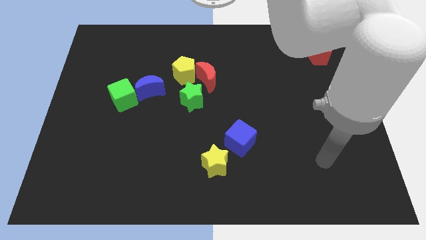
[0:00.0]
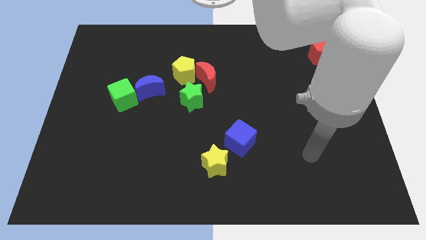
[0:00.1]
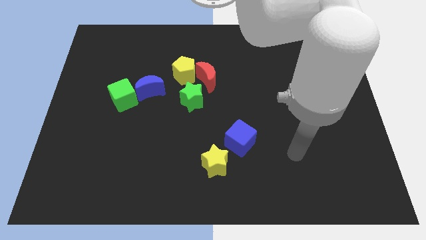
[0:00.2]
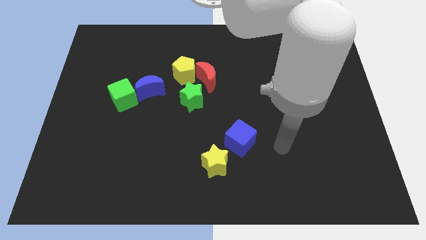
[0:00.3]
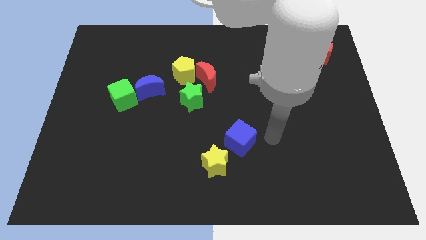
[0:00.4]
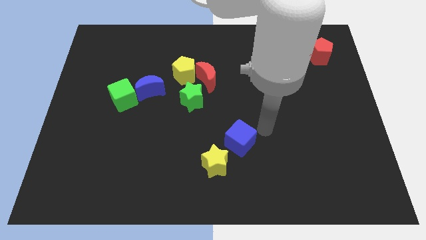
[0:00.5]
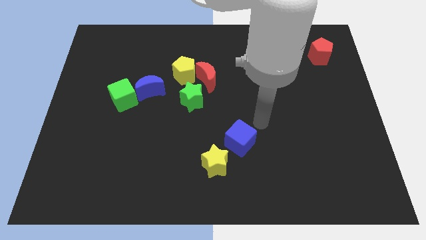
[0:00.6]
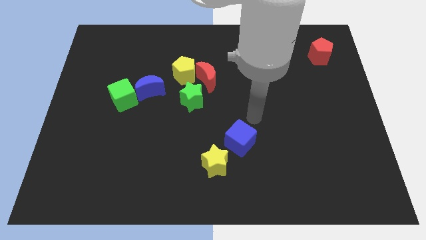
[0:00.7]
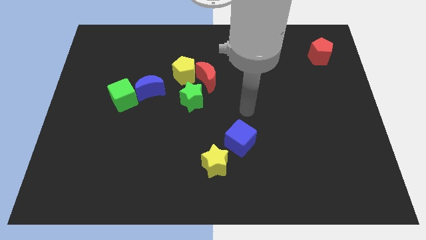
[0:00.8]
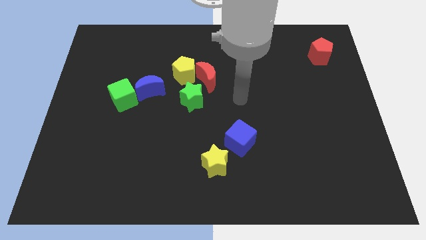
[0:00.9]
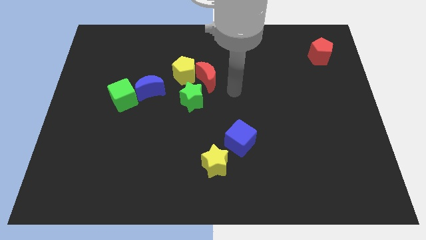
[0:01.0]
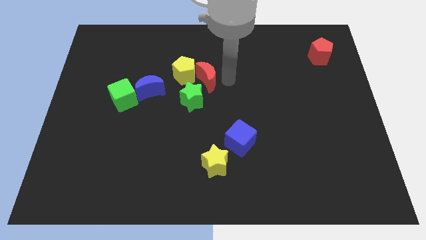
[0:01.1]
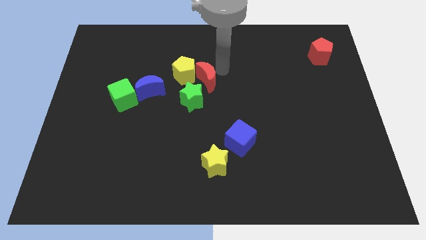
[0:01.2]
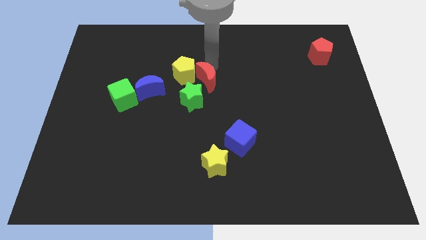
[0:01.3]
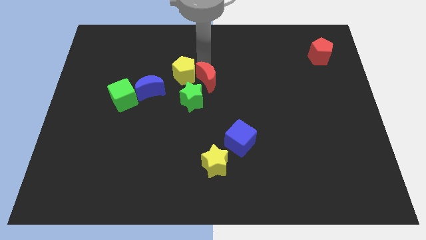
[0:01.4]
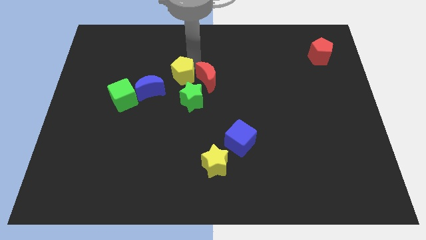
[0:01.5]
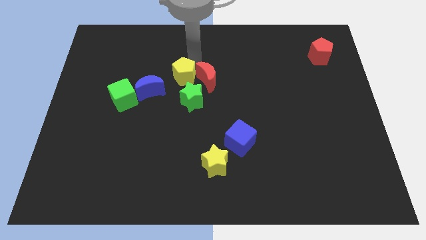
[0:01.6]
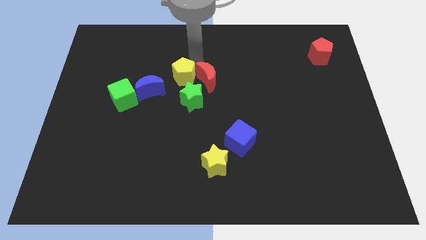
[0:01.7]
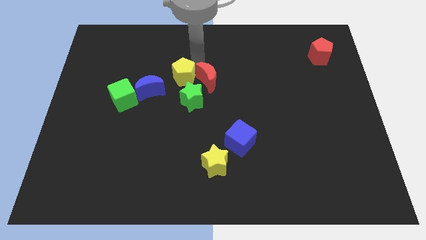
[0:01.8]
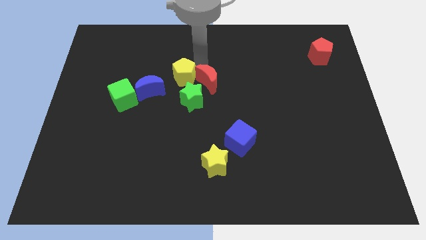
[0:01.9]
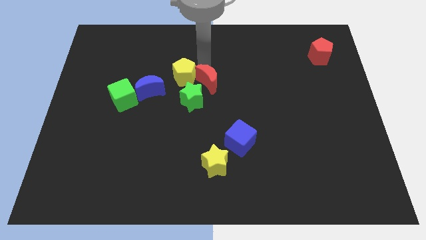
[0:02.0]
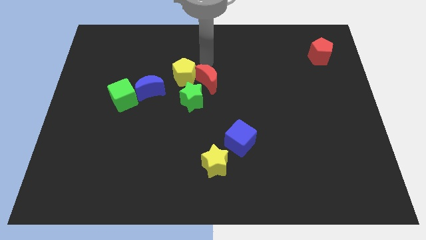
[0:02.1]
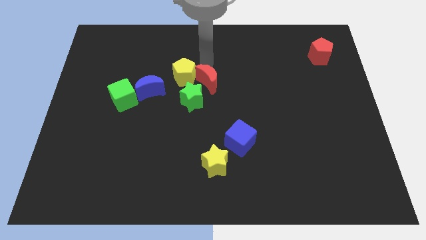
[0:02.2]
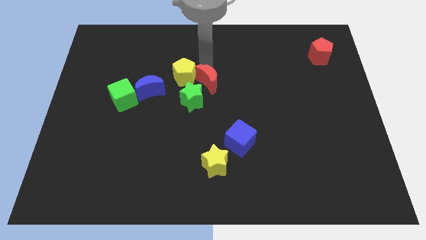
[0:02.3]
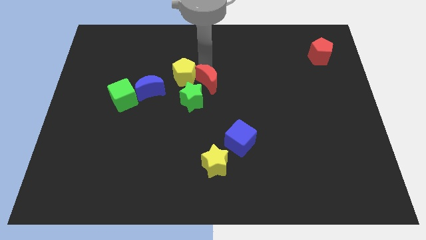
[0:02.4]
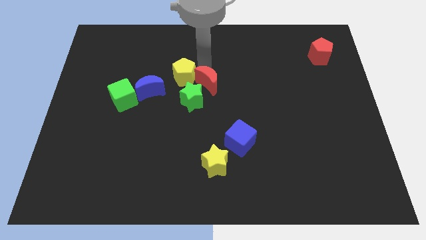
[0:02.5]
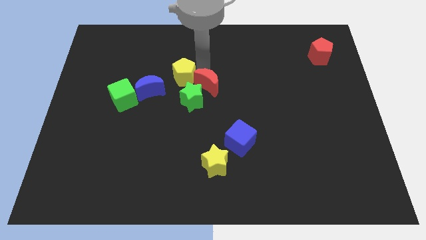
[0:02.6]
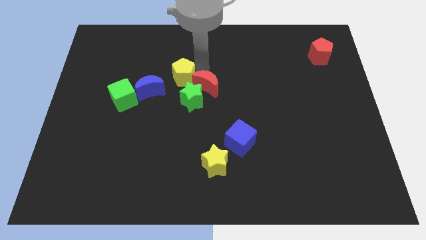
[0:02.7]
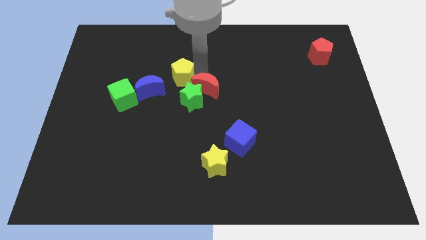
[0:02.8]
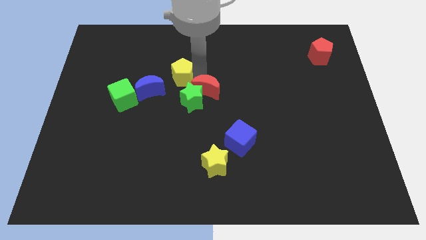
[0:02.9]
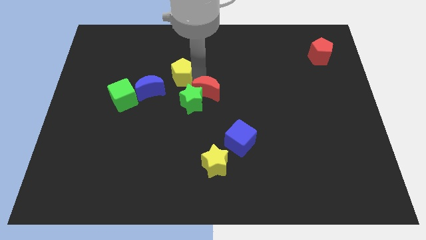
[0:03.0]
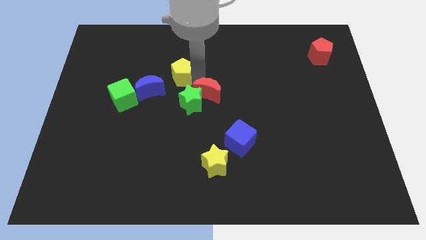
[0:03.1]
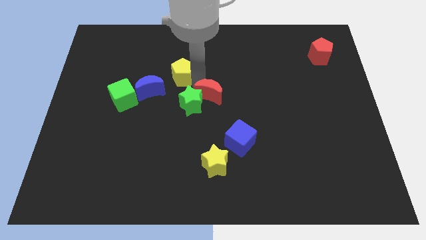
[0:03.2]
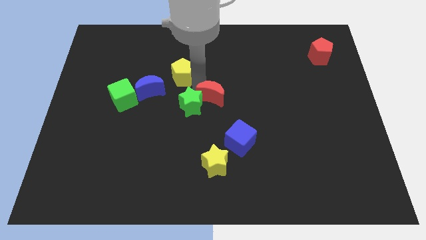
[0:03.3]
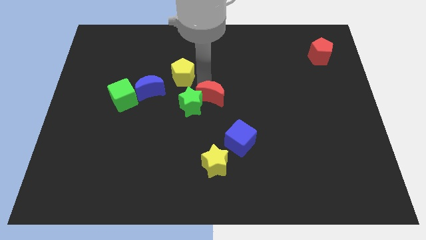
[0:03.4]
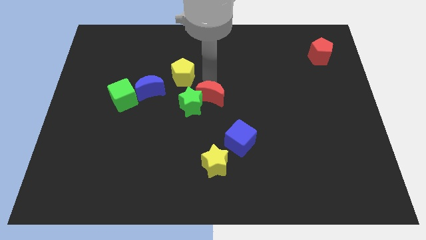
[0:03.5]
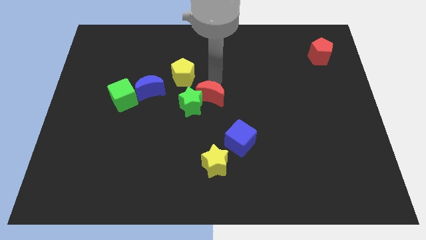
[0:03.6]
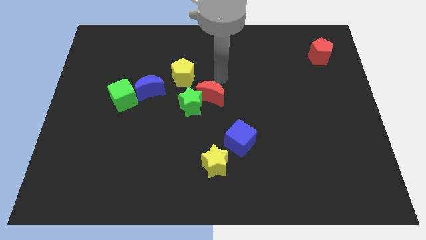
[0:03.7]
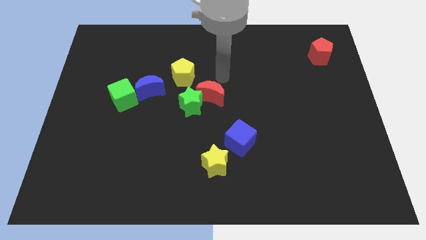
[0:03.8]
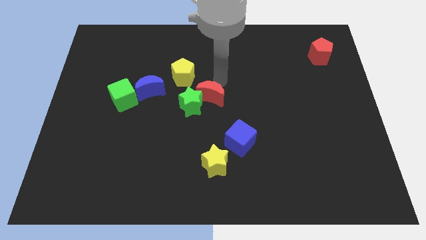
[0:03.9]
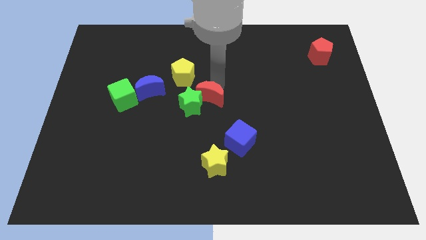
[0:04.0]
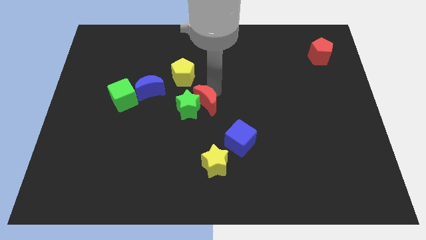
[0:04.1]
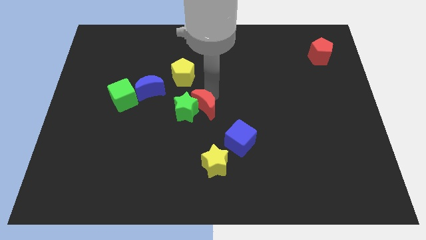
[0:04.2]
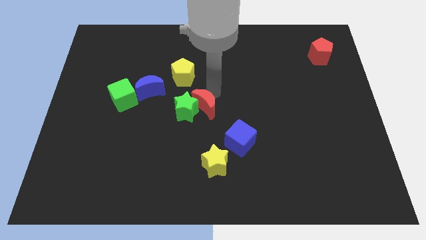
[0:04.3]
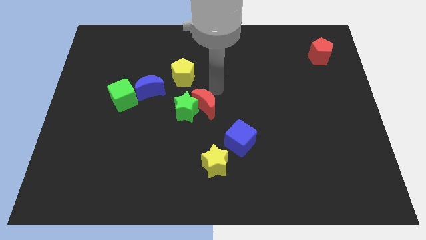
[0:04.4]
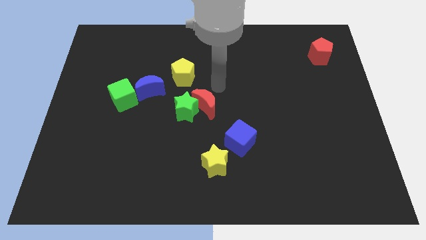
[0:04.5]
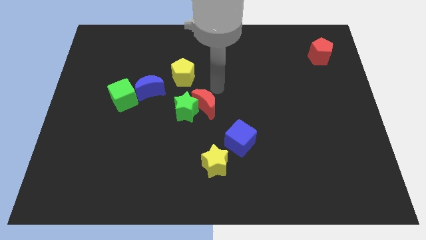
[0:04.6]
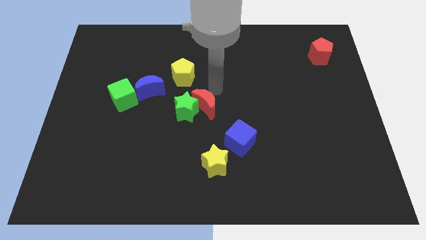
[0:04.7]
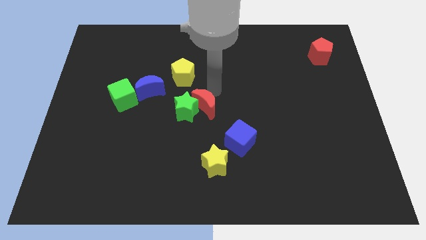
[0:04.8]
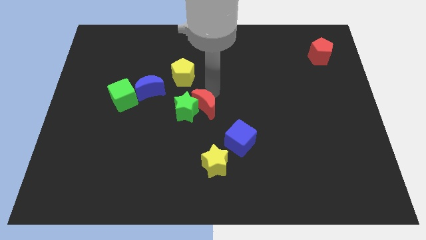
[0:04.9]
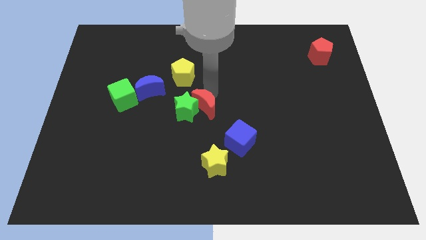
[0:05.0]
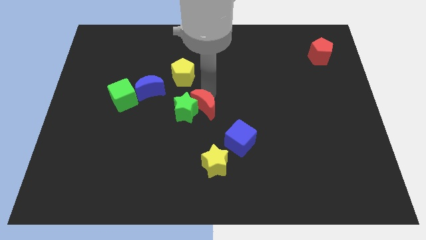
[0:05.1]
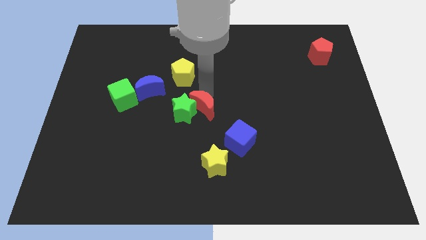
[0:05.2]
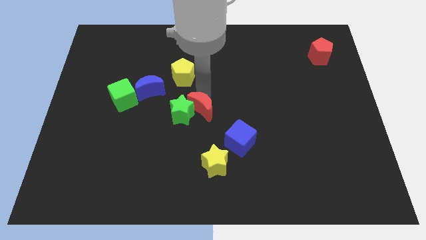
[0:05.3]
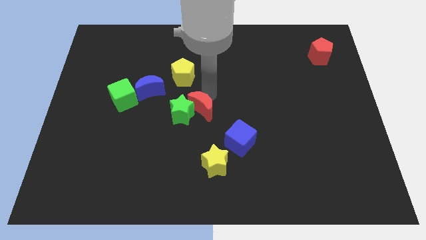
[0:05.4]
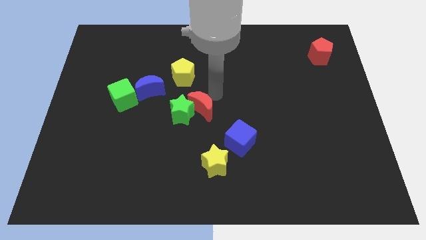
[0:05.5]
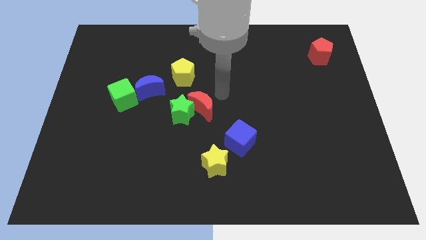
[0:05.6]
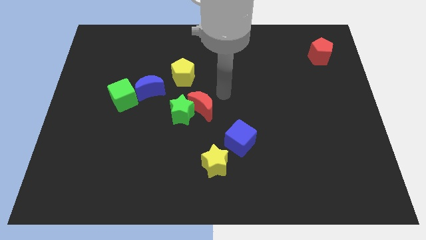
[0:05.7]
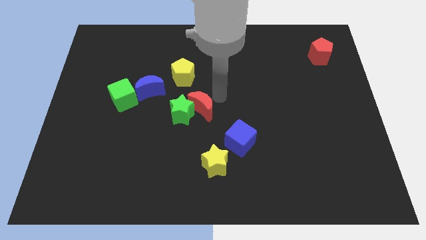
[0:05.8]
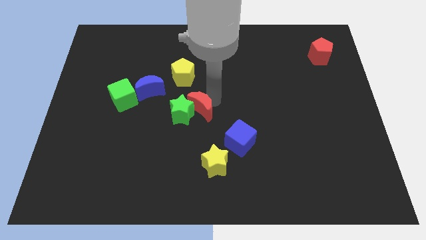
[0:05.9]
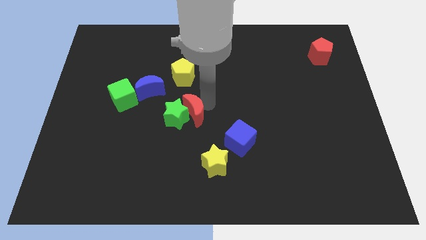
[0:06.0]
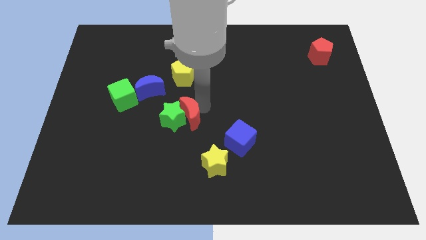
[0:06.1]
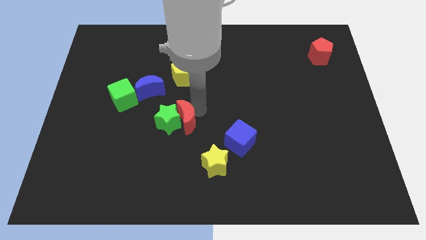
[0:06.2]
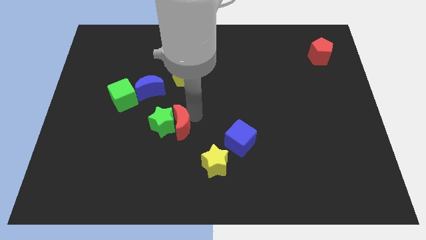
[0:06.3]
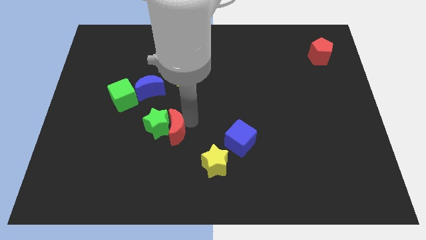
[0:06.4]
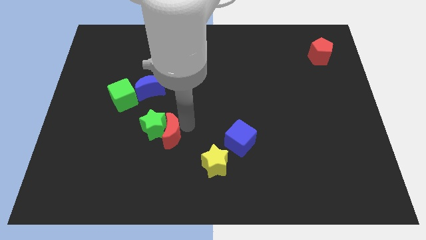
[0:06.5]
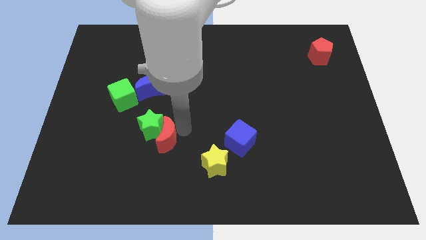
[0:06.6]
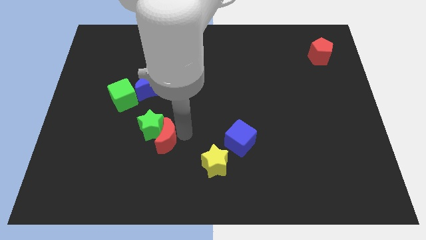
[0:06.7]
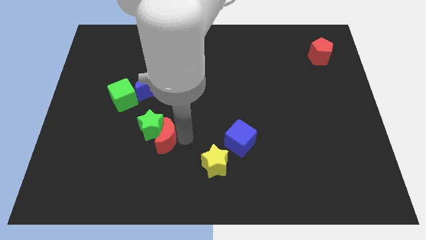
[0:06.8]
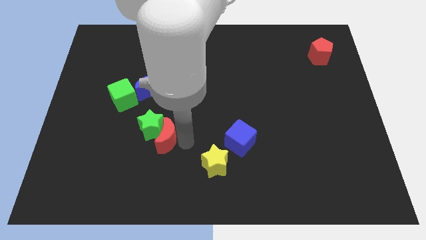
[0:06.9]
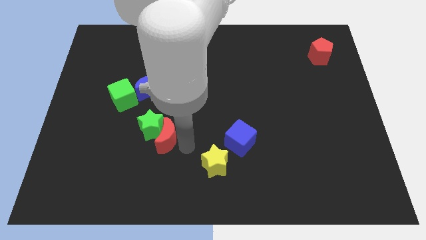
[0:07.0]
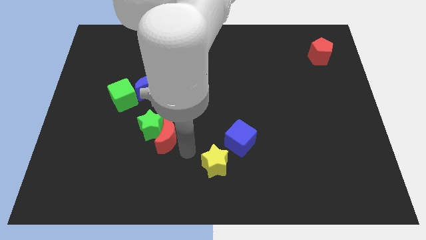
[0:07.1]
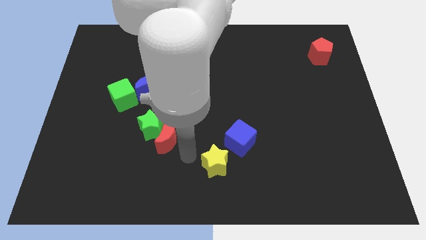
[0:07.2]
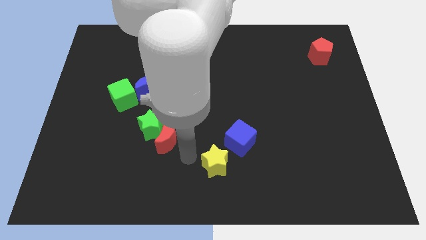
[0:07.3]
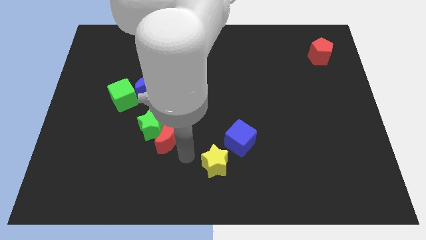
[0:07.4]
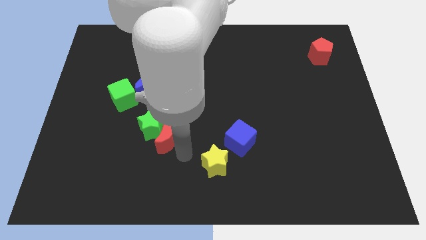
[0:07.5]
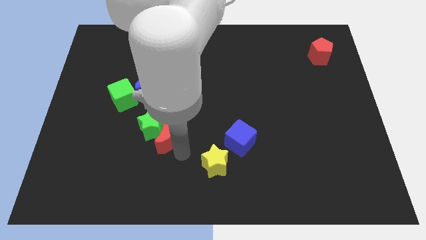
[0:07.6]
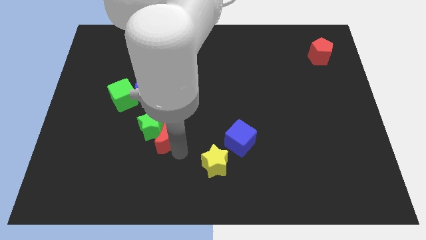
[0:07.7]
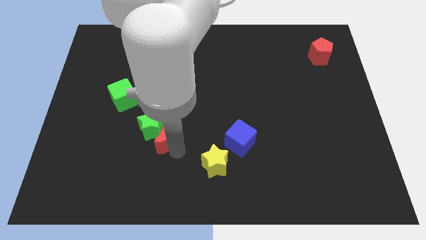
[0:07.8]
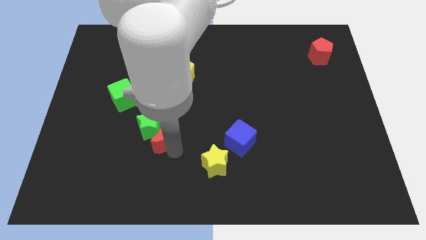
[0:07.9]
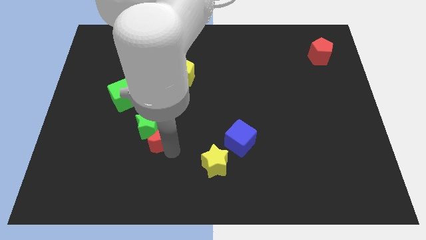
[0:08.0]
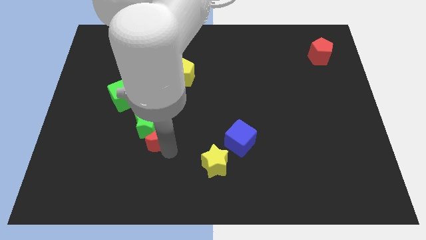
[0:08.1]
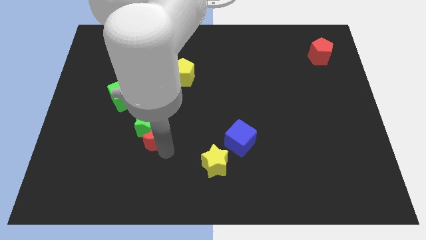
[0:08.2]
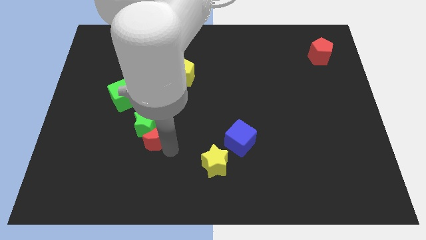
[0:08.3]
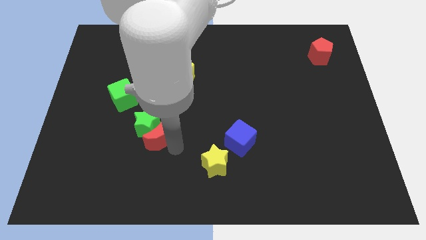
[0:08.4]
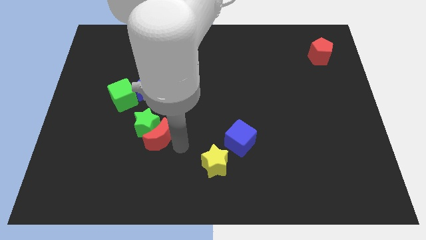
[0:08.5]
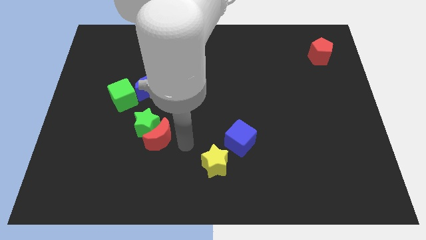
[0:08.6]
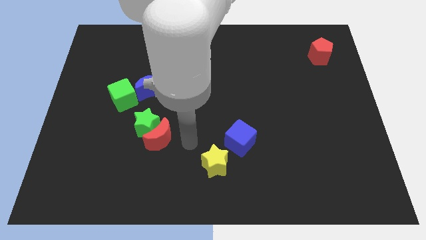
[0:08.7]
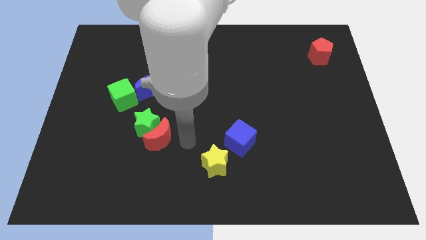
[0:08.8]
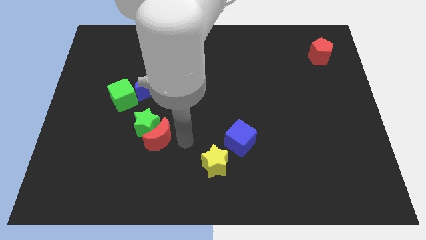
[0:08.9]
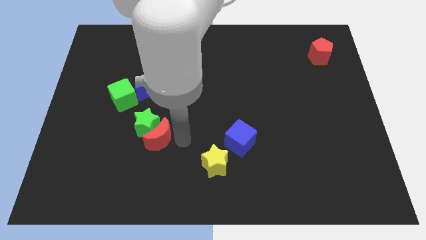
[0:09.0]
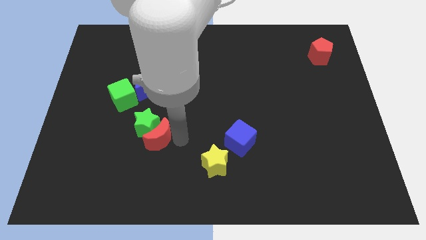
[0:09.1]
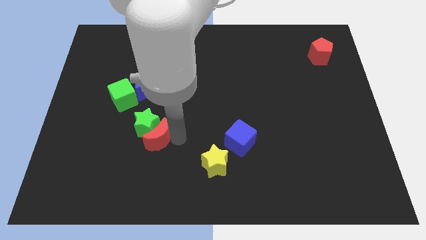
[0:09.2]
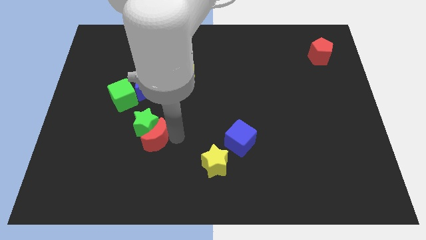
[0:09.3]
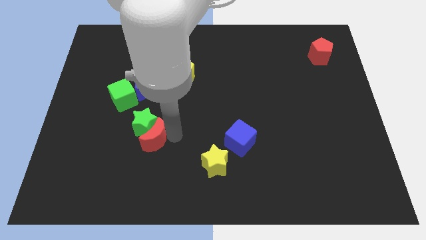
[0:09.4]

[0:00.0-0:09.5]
push the red moon down and then left
